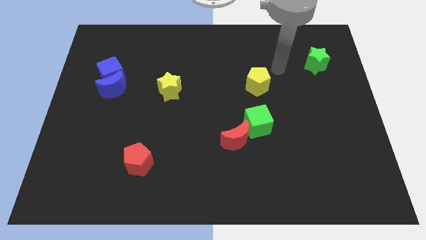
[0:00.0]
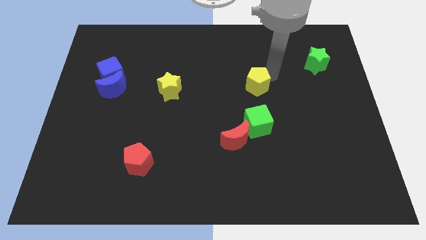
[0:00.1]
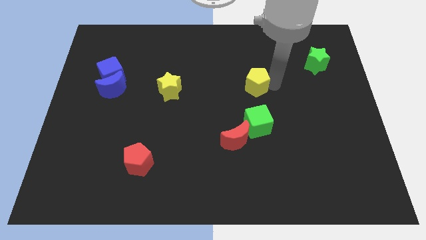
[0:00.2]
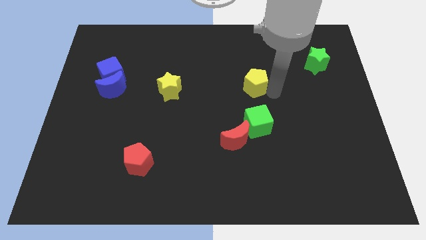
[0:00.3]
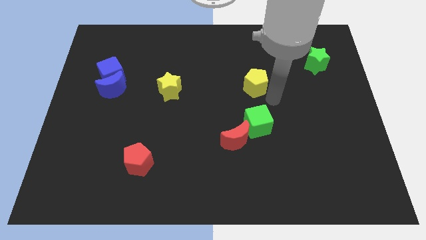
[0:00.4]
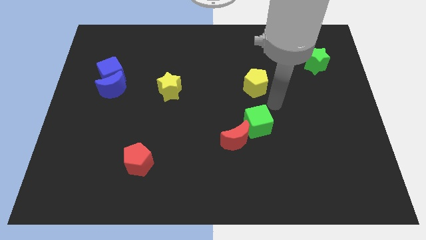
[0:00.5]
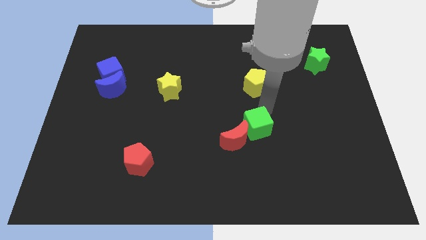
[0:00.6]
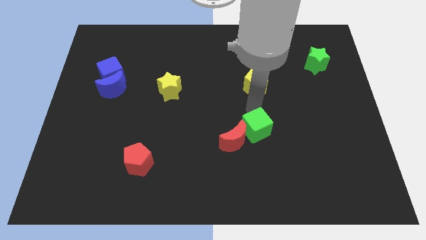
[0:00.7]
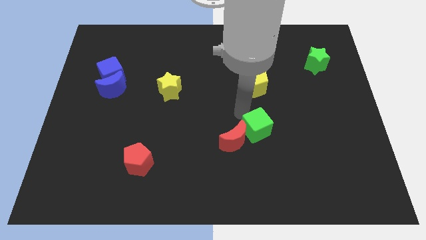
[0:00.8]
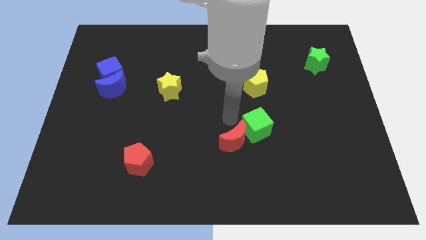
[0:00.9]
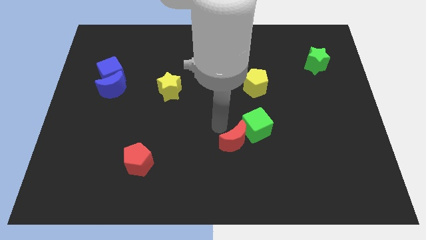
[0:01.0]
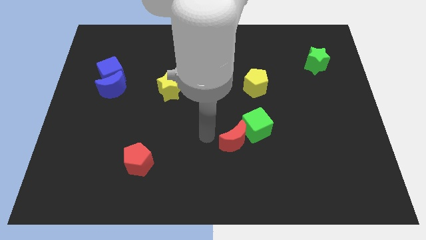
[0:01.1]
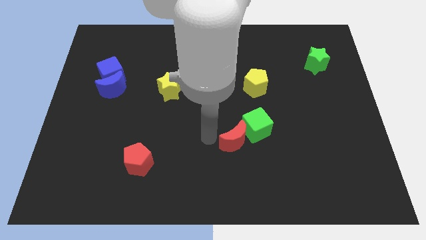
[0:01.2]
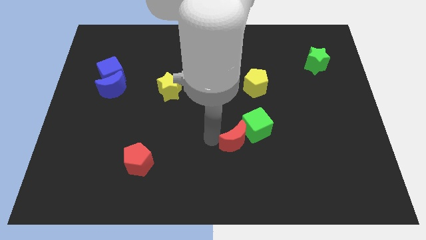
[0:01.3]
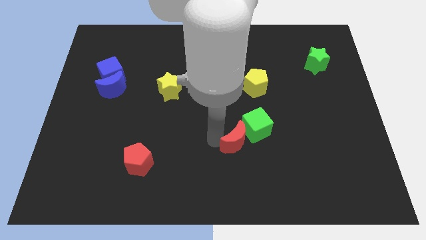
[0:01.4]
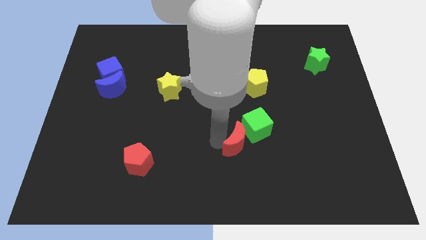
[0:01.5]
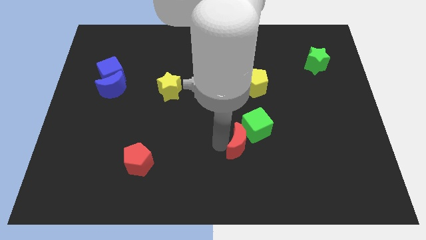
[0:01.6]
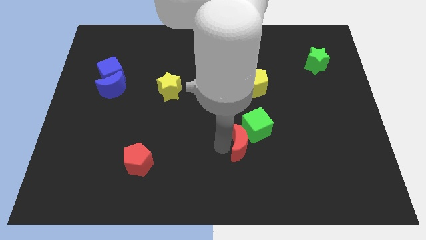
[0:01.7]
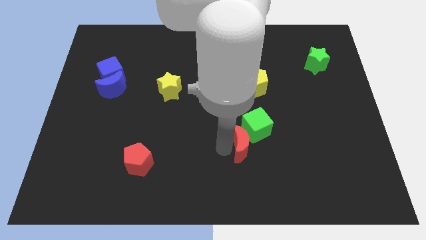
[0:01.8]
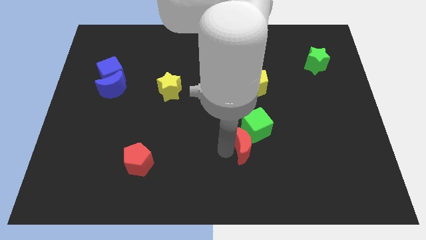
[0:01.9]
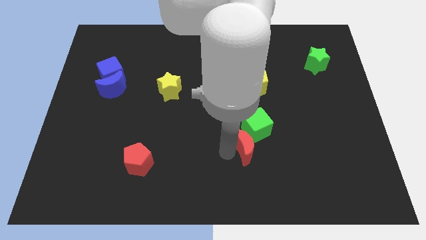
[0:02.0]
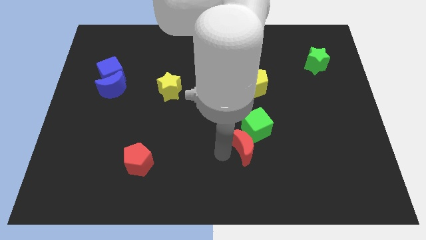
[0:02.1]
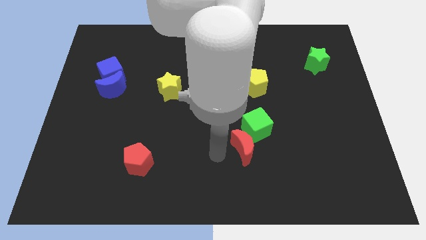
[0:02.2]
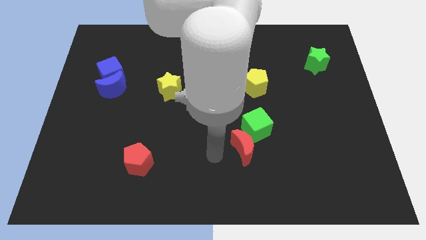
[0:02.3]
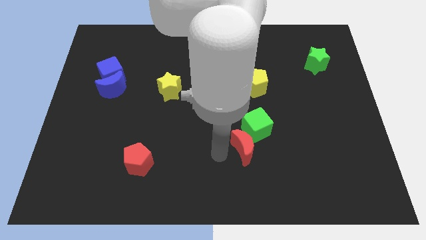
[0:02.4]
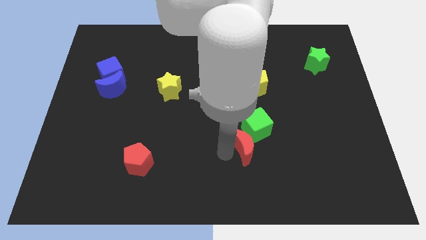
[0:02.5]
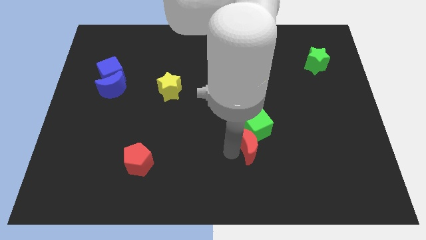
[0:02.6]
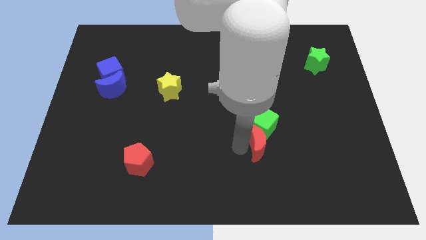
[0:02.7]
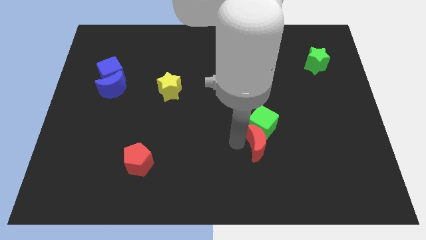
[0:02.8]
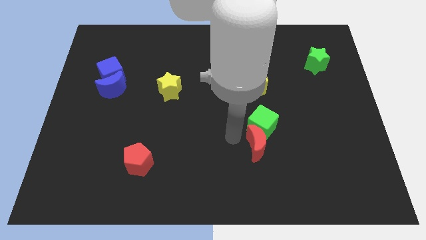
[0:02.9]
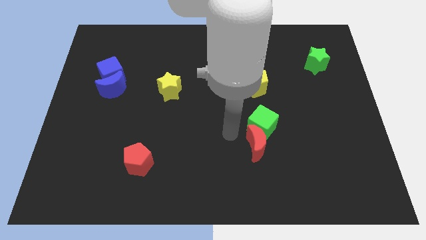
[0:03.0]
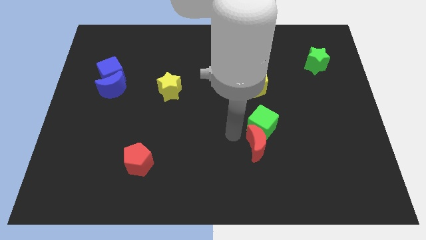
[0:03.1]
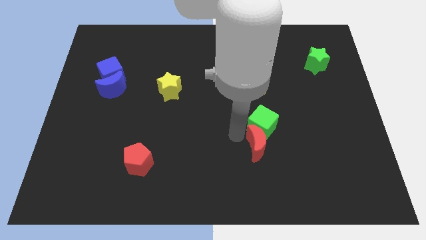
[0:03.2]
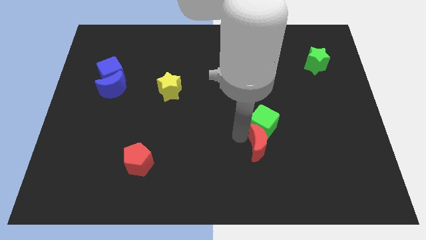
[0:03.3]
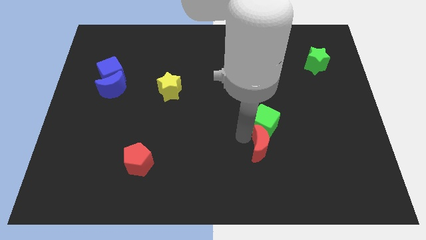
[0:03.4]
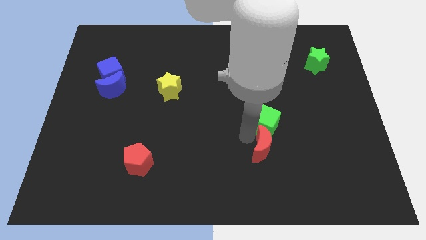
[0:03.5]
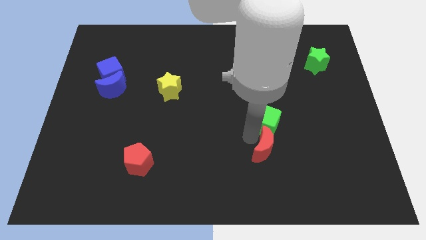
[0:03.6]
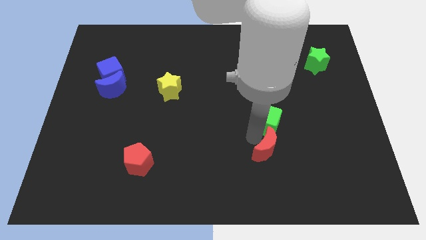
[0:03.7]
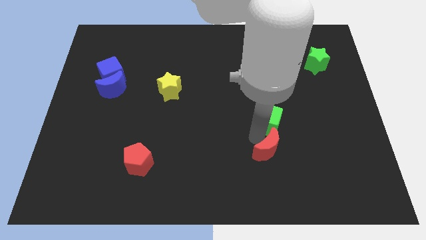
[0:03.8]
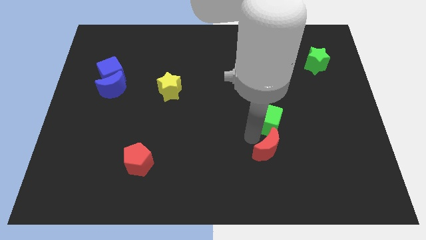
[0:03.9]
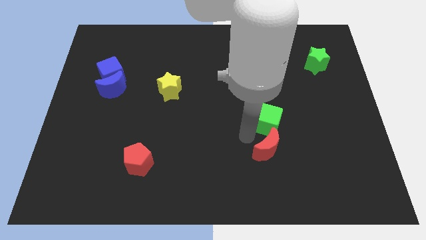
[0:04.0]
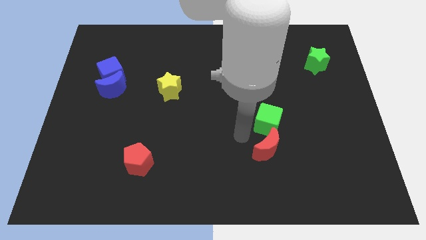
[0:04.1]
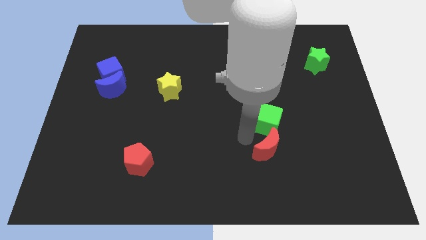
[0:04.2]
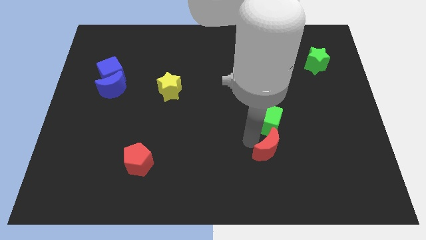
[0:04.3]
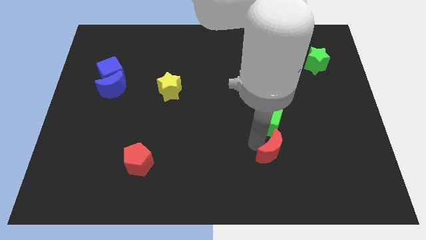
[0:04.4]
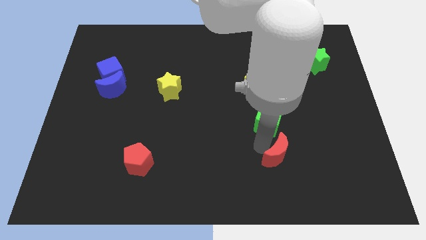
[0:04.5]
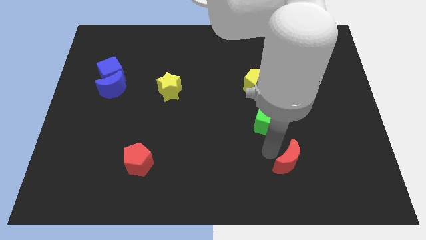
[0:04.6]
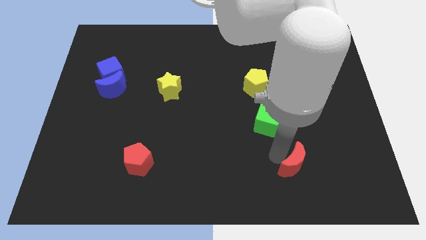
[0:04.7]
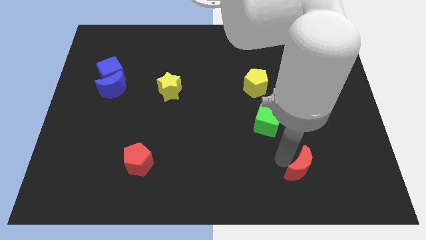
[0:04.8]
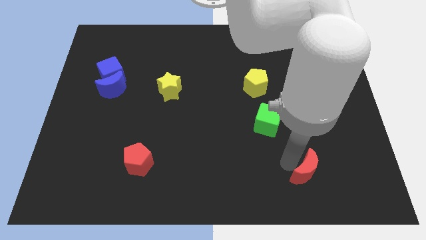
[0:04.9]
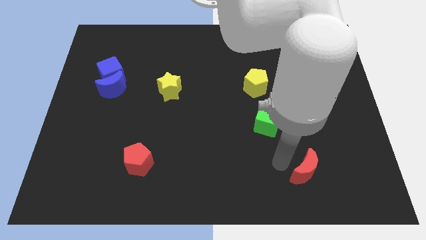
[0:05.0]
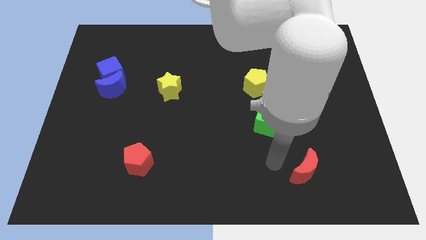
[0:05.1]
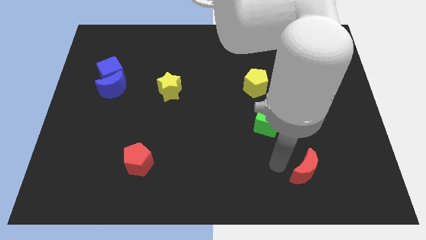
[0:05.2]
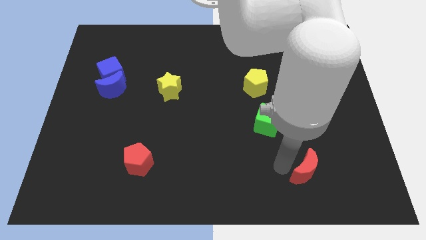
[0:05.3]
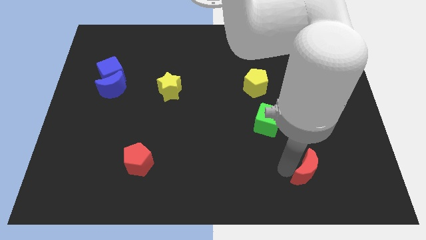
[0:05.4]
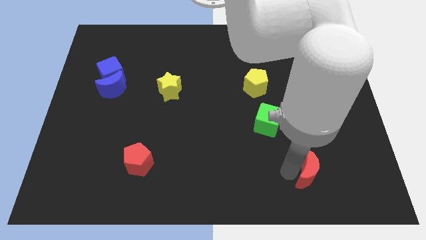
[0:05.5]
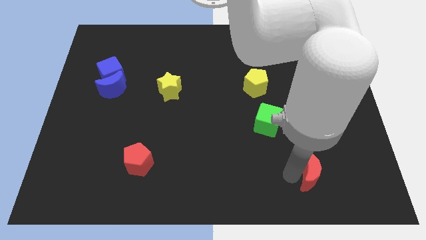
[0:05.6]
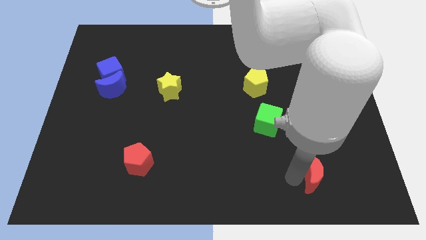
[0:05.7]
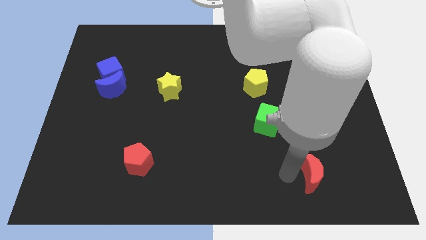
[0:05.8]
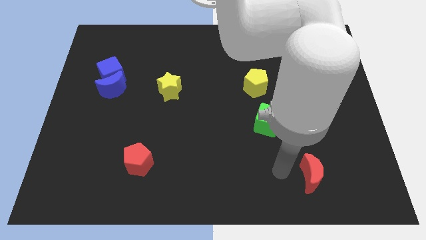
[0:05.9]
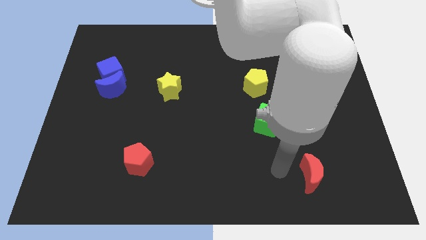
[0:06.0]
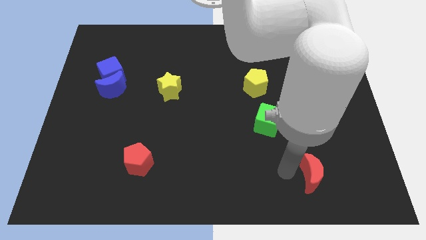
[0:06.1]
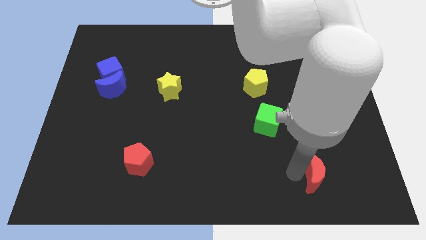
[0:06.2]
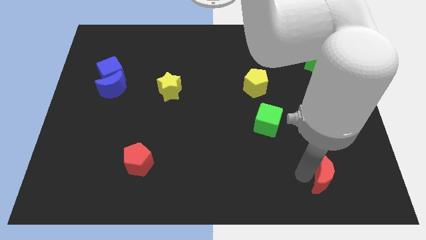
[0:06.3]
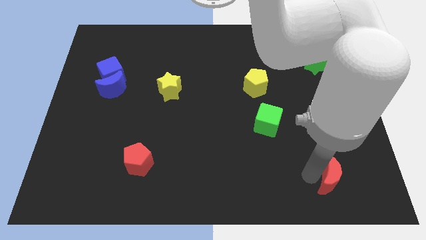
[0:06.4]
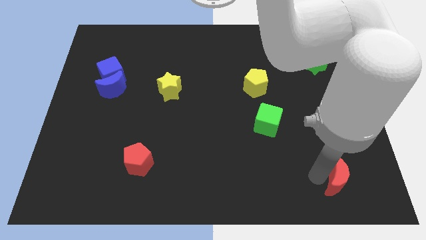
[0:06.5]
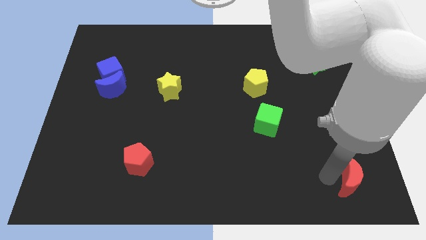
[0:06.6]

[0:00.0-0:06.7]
put the red moon to the bottom right of the board
